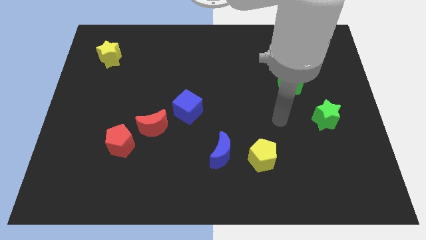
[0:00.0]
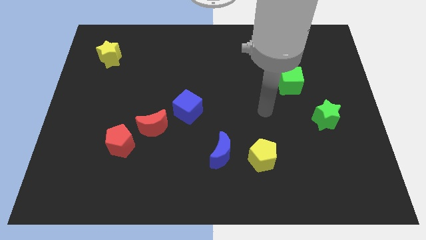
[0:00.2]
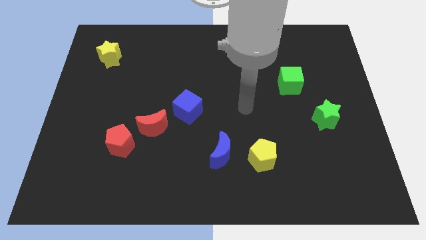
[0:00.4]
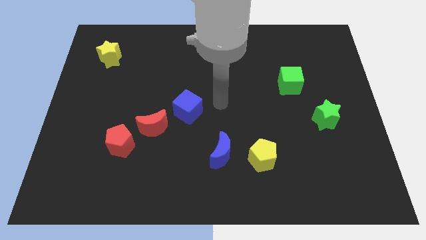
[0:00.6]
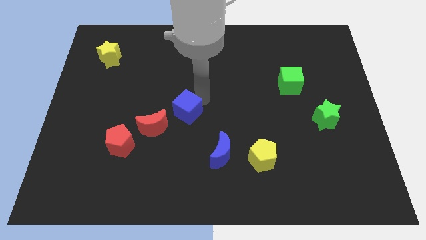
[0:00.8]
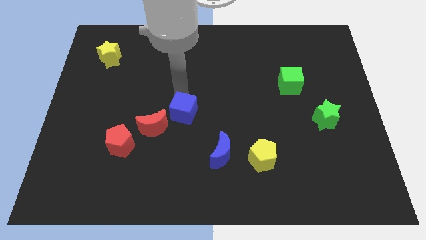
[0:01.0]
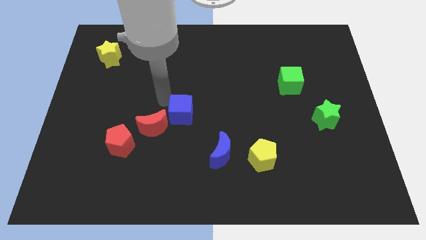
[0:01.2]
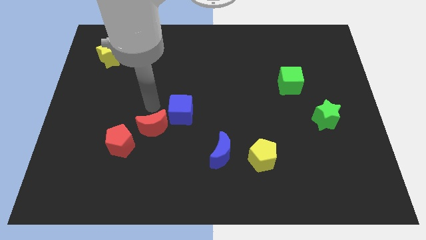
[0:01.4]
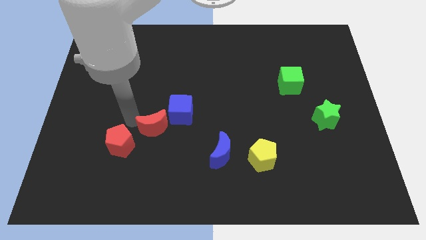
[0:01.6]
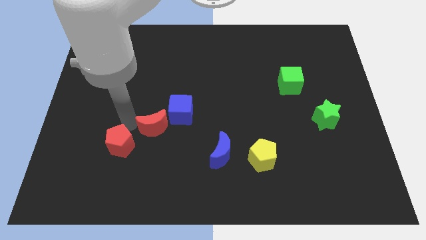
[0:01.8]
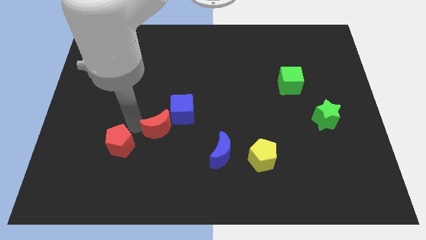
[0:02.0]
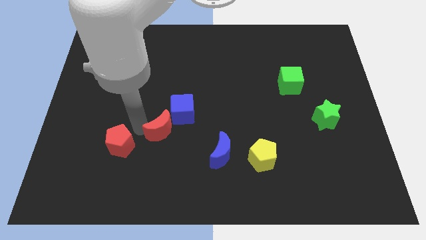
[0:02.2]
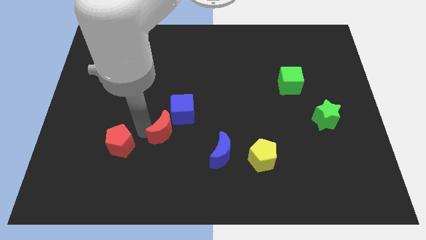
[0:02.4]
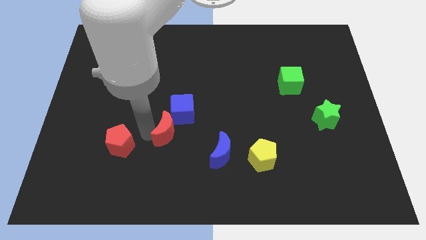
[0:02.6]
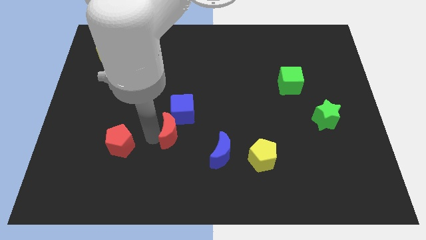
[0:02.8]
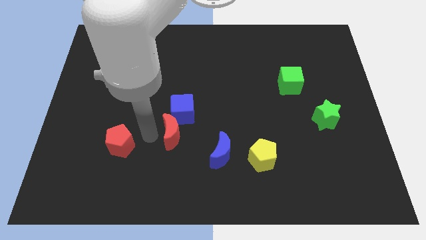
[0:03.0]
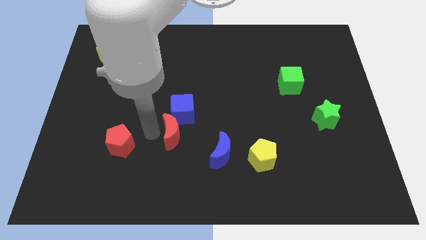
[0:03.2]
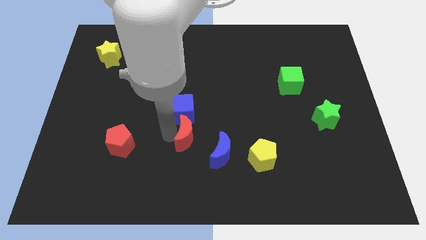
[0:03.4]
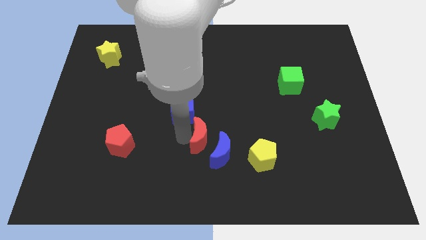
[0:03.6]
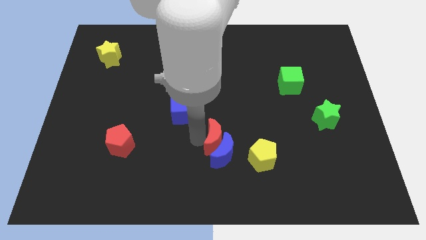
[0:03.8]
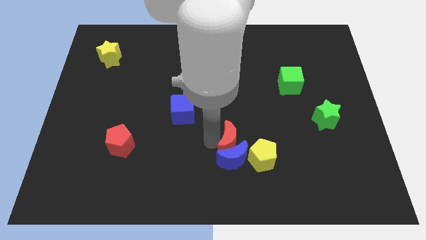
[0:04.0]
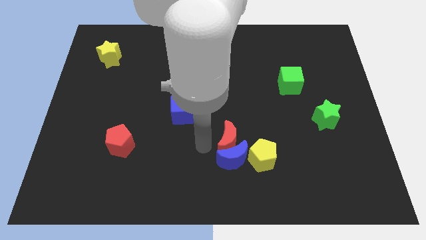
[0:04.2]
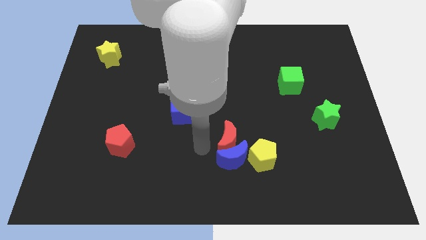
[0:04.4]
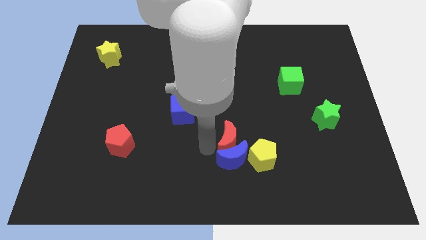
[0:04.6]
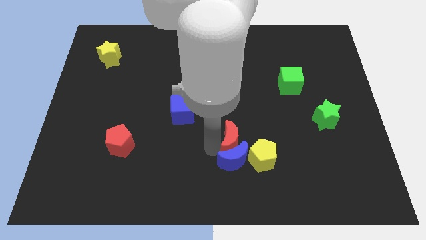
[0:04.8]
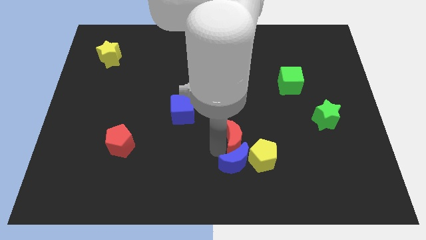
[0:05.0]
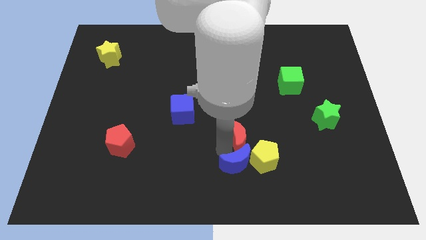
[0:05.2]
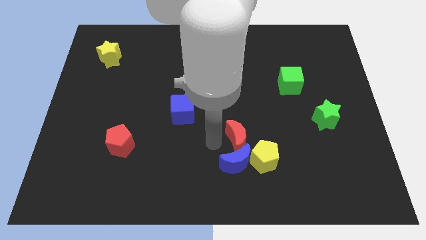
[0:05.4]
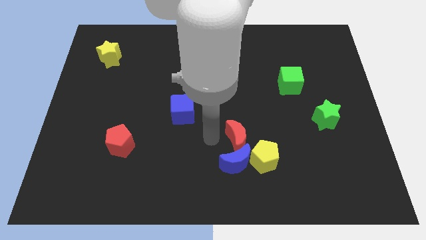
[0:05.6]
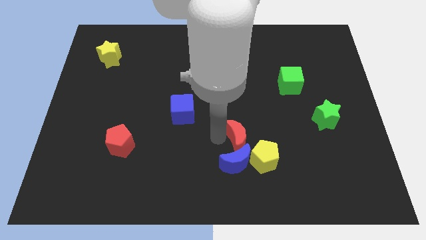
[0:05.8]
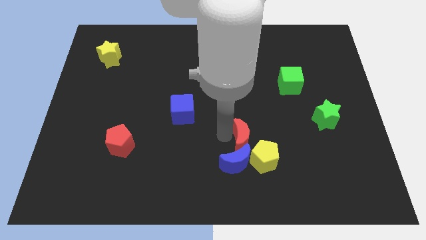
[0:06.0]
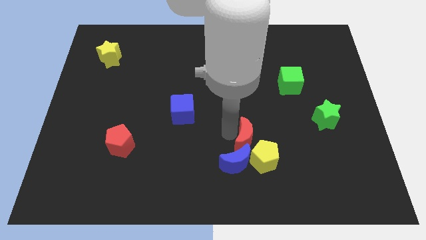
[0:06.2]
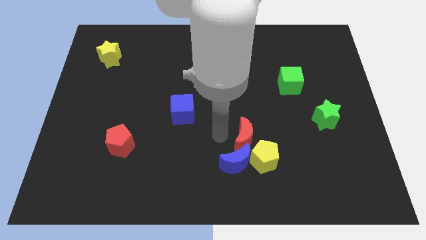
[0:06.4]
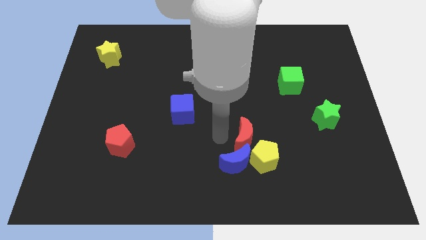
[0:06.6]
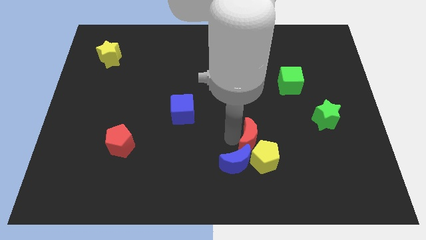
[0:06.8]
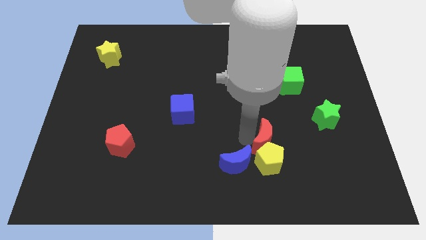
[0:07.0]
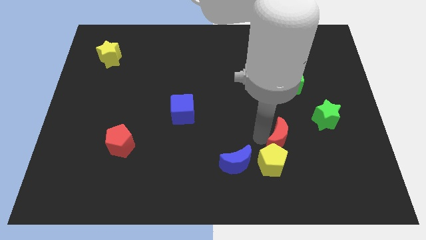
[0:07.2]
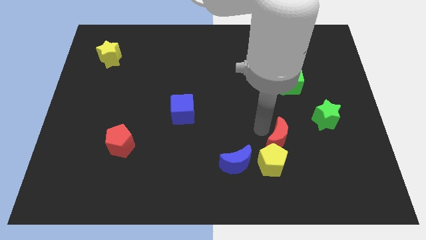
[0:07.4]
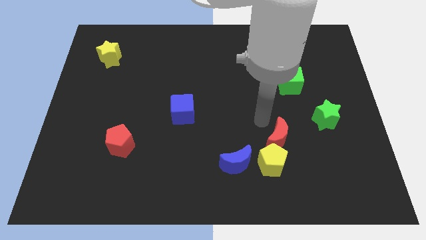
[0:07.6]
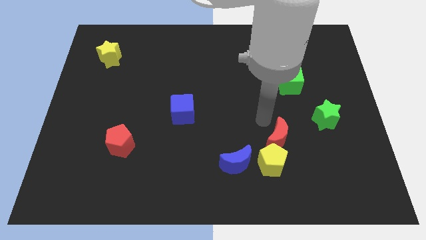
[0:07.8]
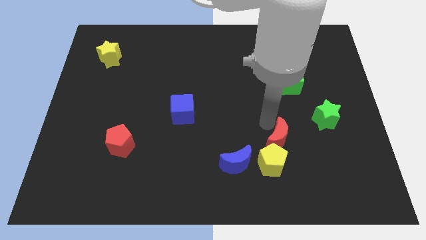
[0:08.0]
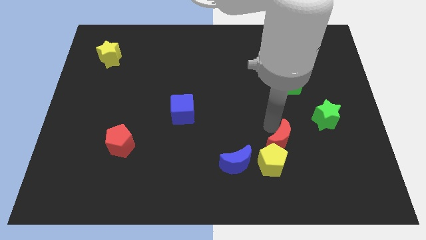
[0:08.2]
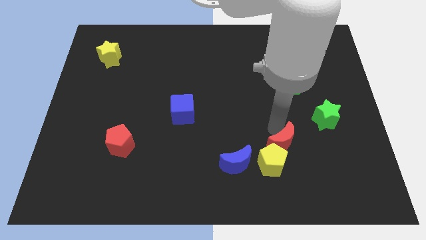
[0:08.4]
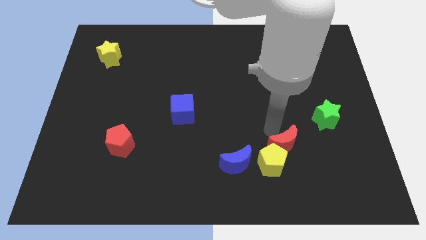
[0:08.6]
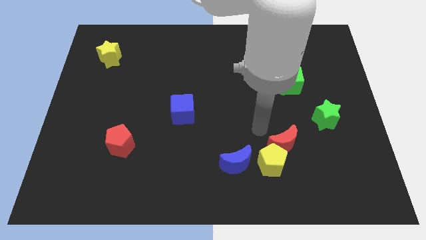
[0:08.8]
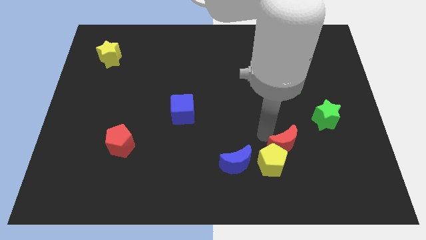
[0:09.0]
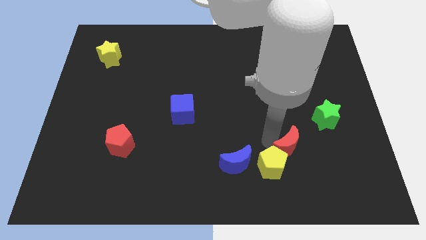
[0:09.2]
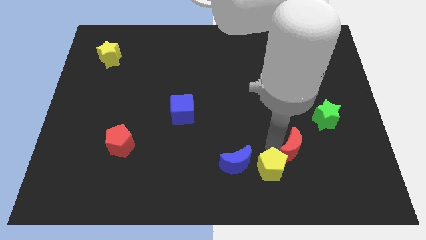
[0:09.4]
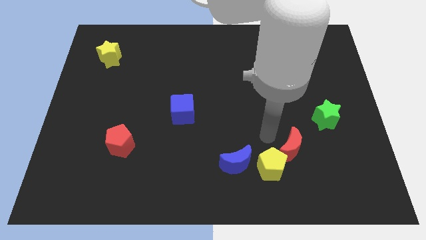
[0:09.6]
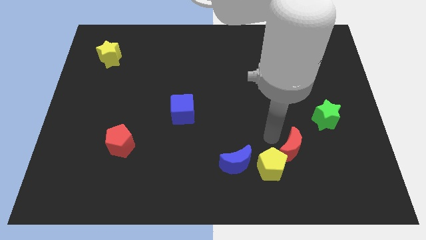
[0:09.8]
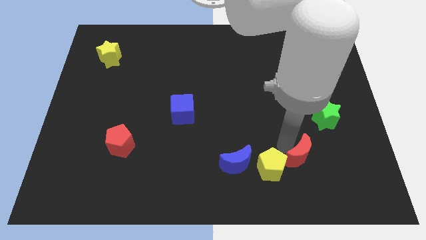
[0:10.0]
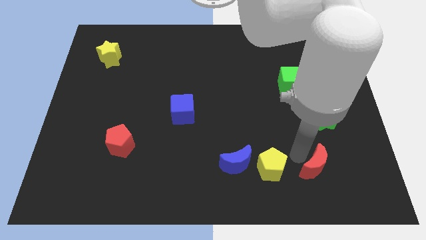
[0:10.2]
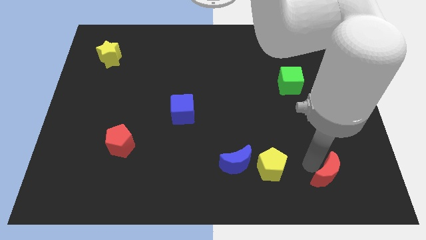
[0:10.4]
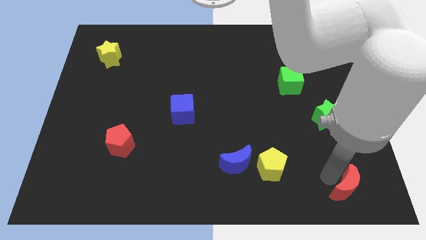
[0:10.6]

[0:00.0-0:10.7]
slide the red moon to the bottom right corner
